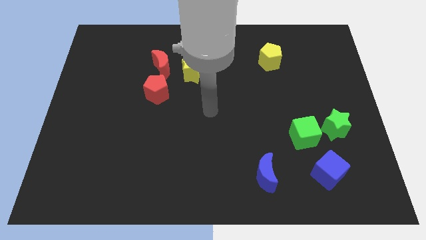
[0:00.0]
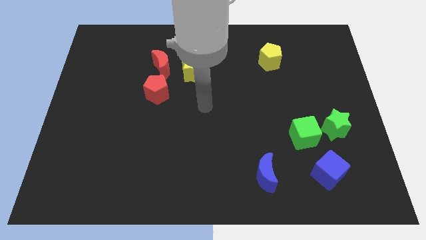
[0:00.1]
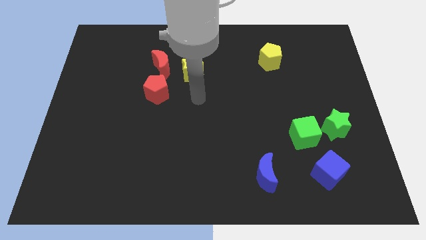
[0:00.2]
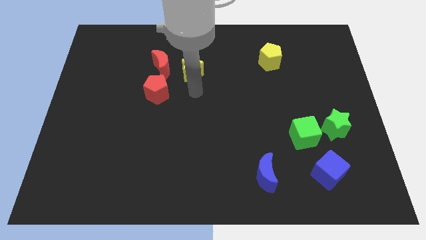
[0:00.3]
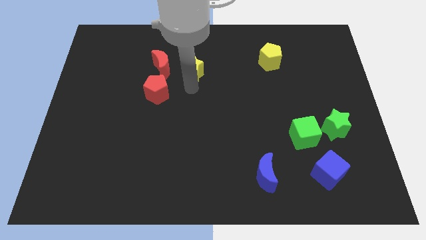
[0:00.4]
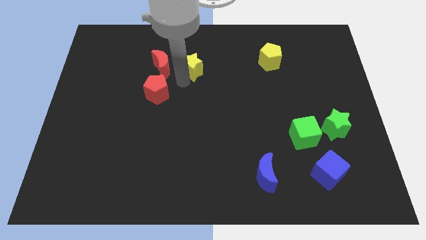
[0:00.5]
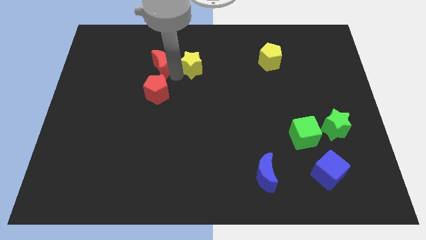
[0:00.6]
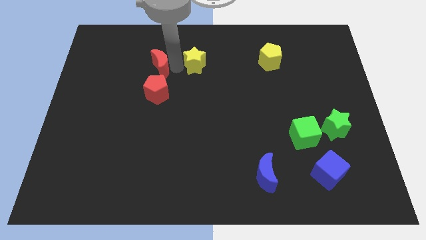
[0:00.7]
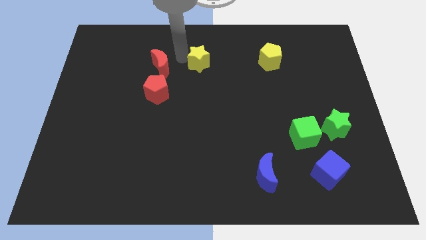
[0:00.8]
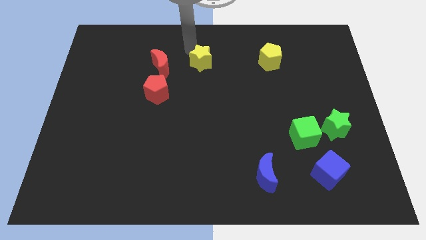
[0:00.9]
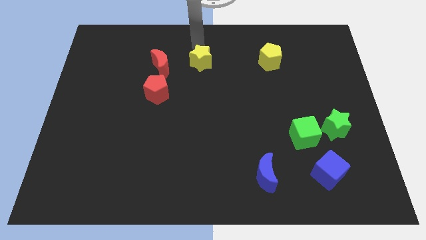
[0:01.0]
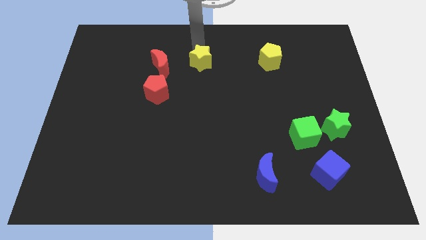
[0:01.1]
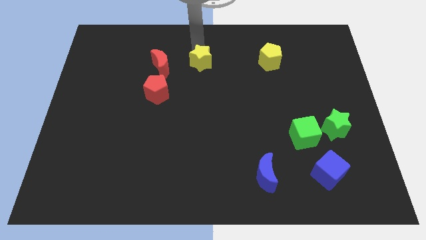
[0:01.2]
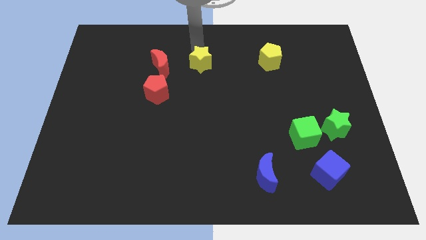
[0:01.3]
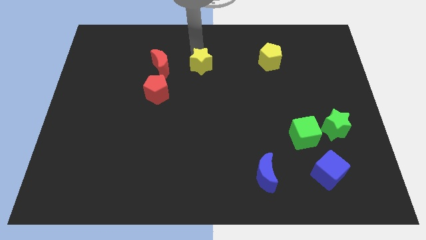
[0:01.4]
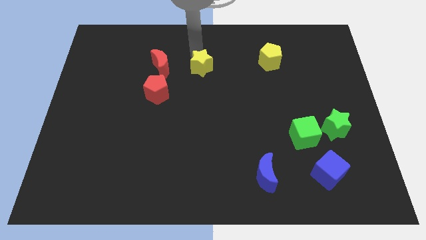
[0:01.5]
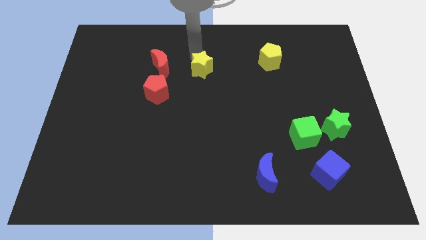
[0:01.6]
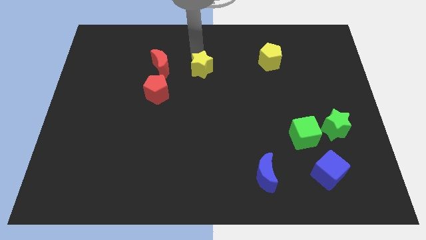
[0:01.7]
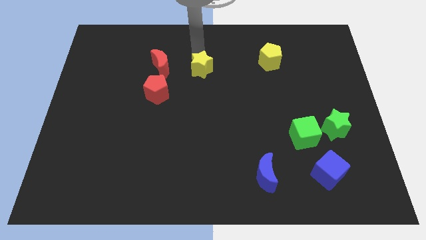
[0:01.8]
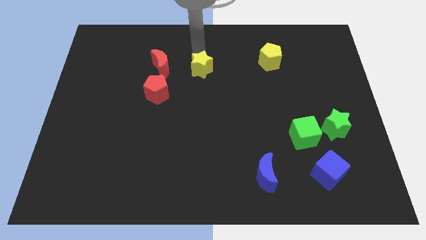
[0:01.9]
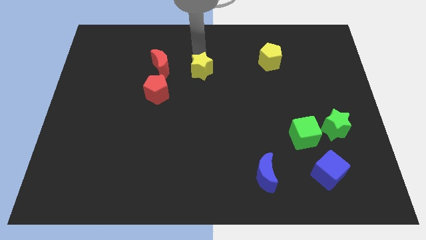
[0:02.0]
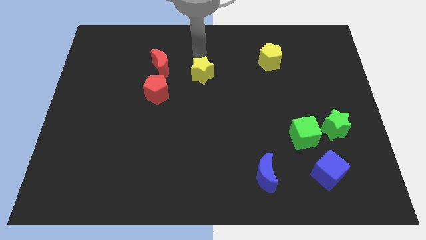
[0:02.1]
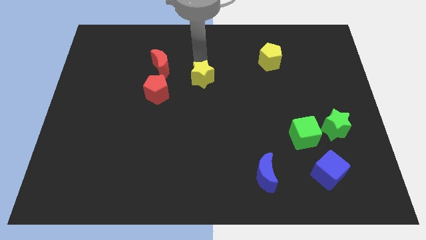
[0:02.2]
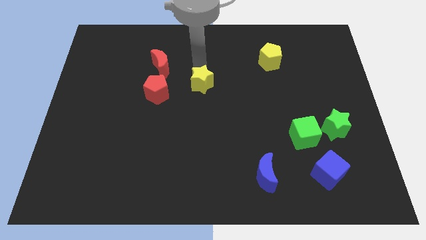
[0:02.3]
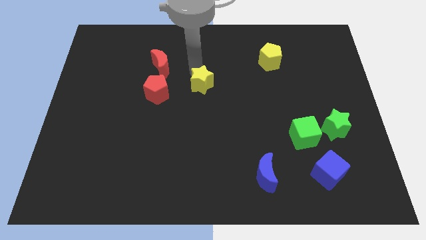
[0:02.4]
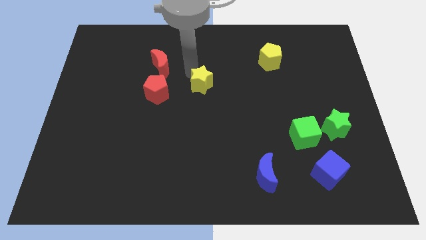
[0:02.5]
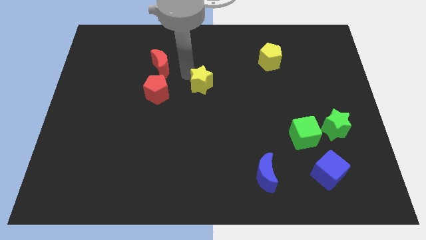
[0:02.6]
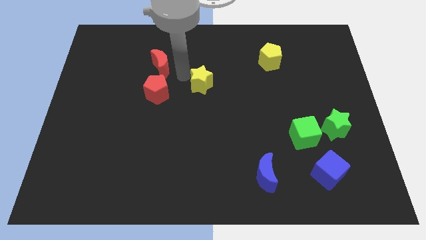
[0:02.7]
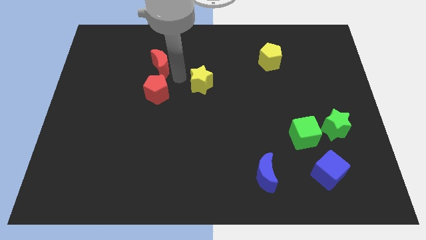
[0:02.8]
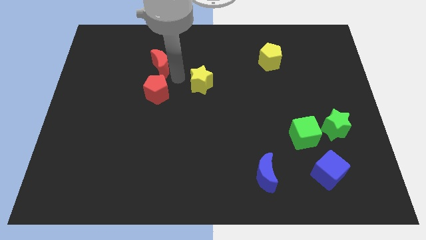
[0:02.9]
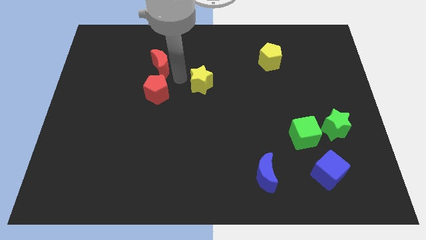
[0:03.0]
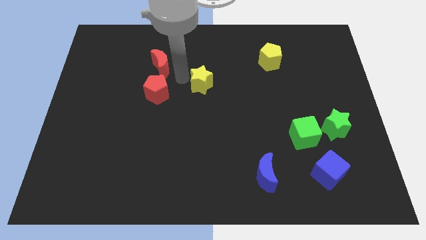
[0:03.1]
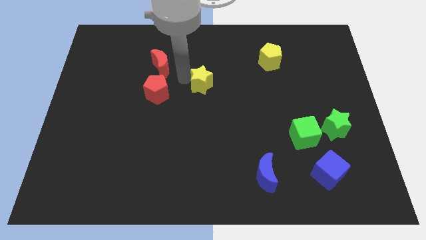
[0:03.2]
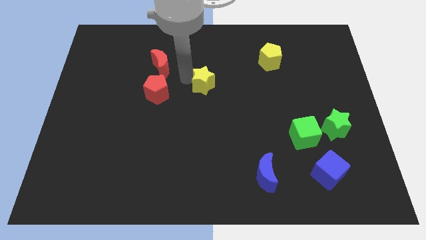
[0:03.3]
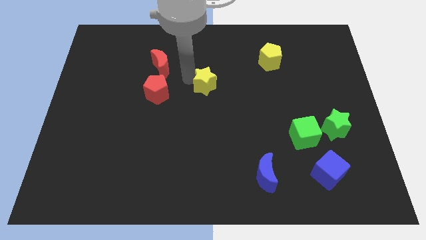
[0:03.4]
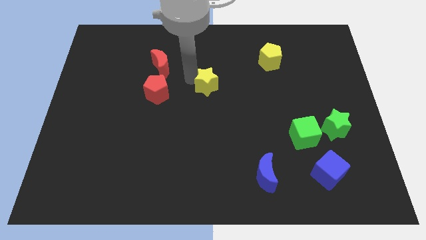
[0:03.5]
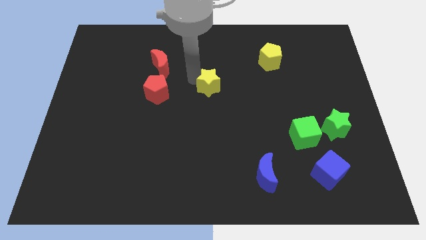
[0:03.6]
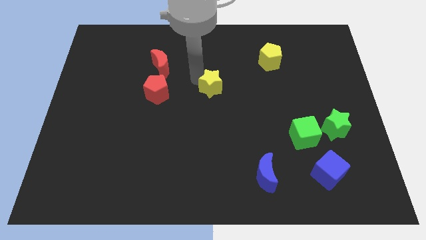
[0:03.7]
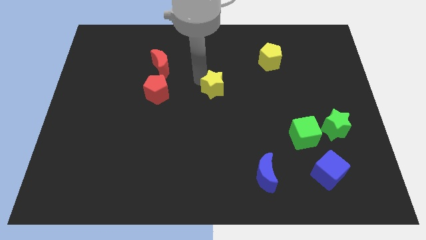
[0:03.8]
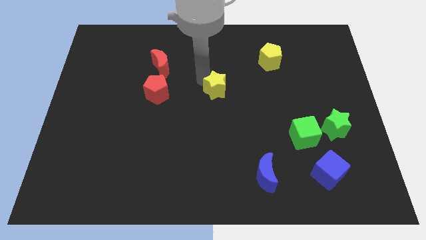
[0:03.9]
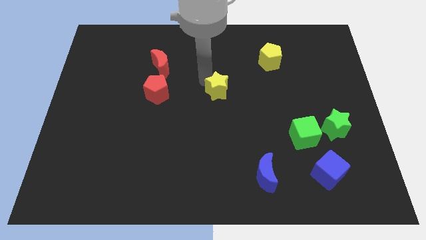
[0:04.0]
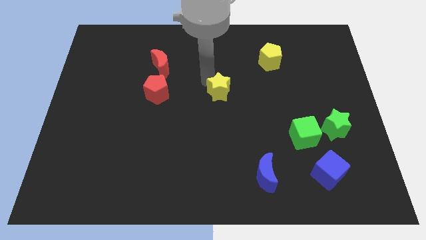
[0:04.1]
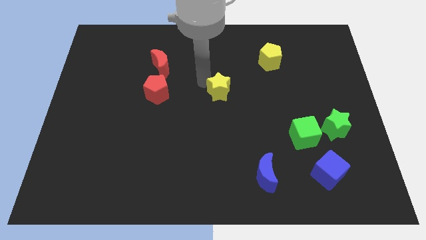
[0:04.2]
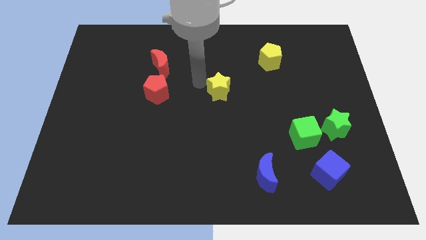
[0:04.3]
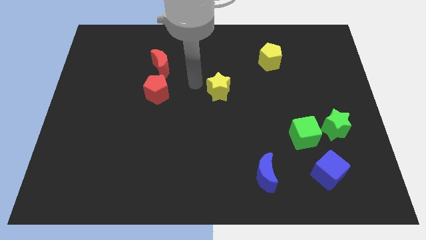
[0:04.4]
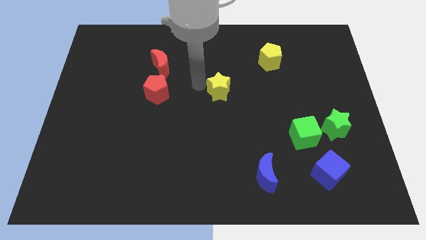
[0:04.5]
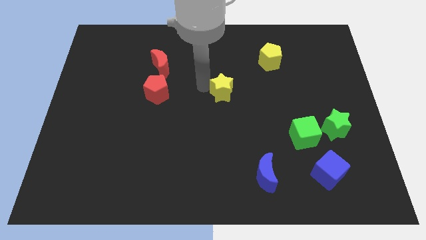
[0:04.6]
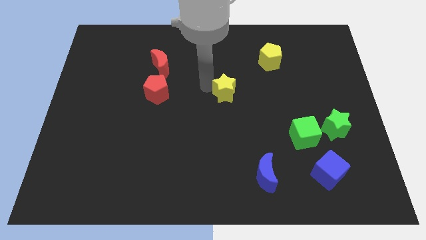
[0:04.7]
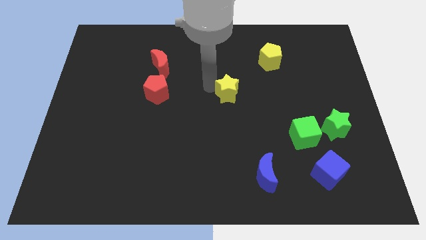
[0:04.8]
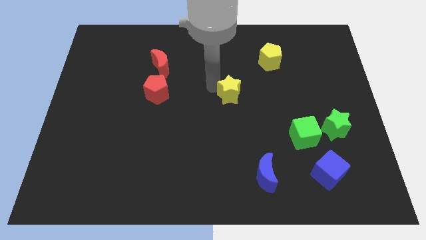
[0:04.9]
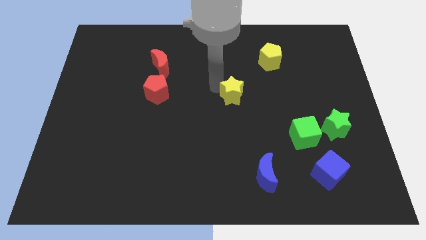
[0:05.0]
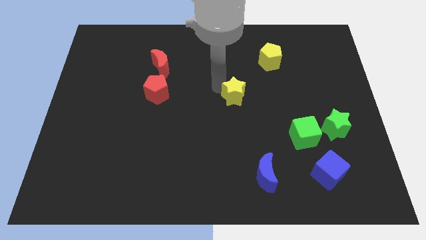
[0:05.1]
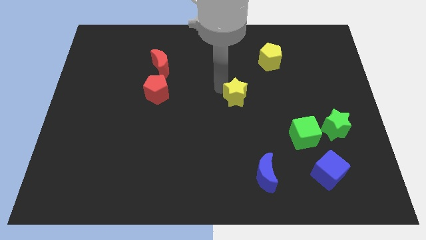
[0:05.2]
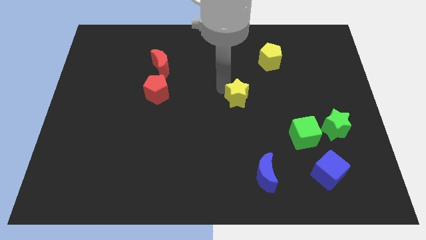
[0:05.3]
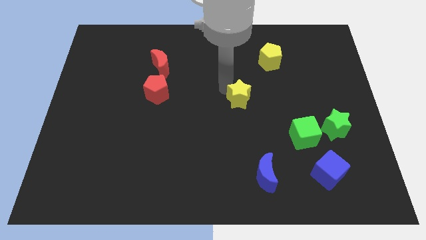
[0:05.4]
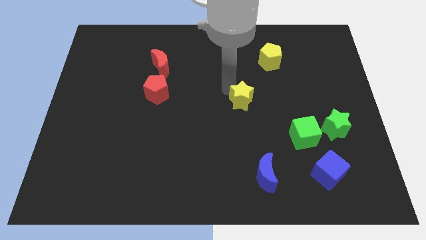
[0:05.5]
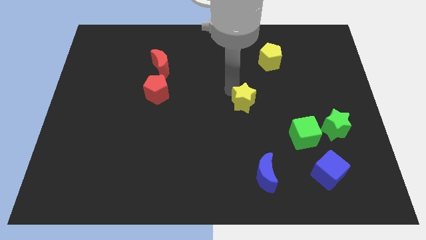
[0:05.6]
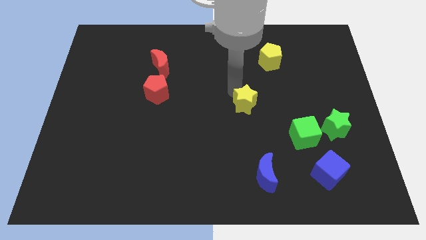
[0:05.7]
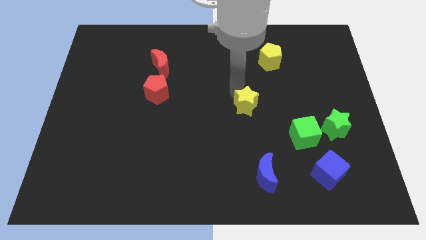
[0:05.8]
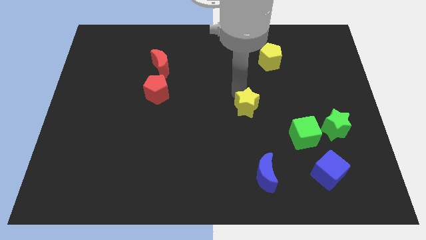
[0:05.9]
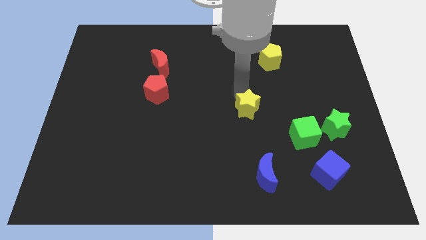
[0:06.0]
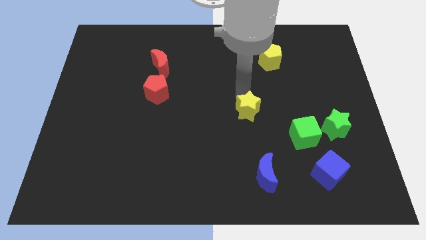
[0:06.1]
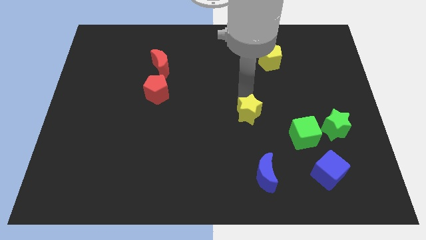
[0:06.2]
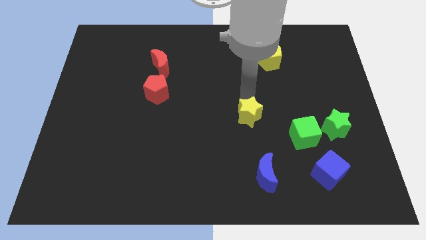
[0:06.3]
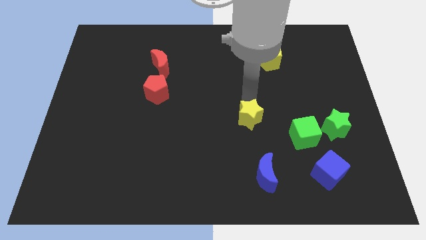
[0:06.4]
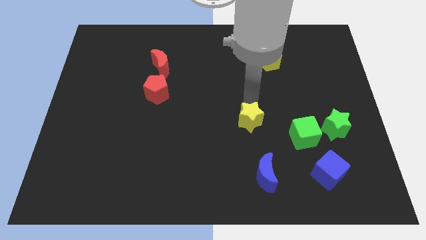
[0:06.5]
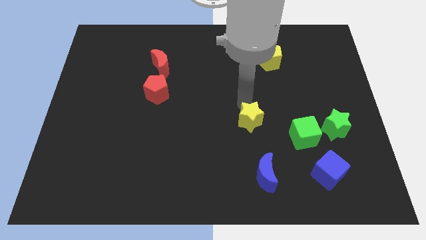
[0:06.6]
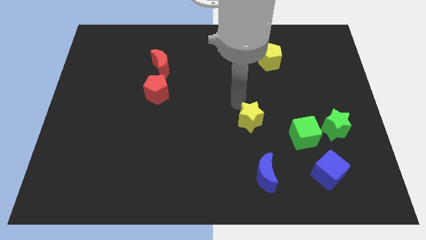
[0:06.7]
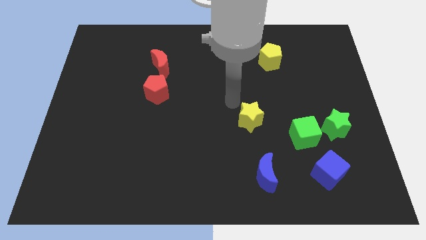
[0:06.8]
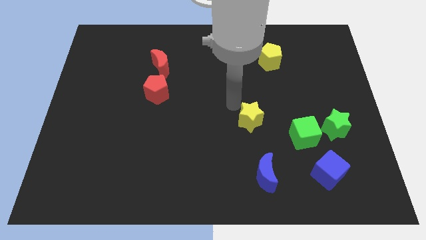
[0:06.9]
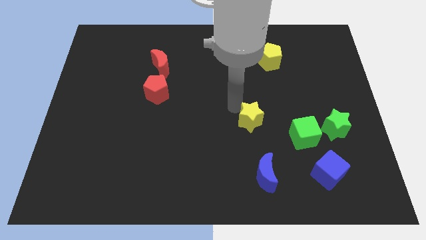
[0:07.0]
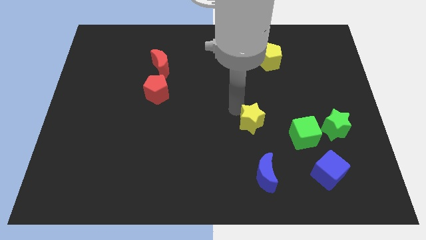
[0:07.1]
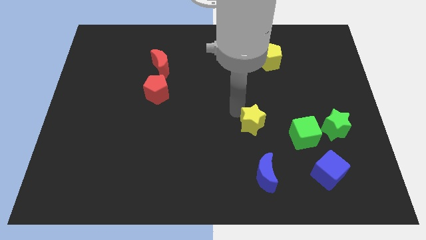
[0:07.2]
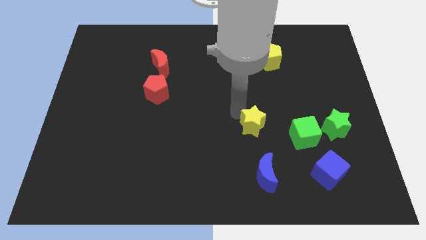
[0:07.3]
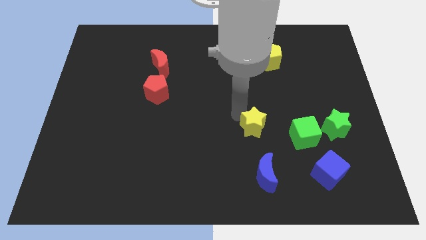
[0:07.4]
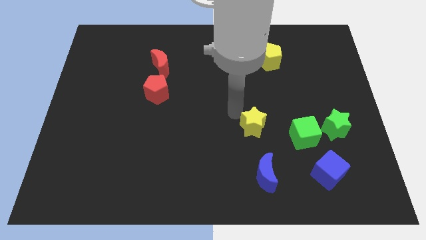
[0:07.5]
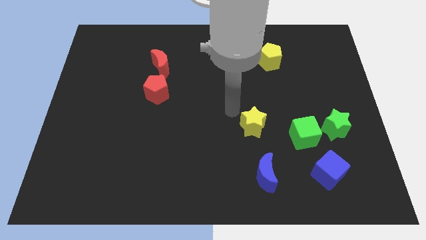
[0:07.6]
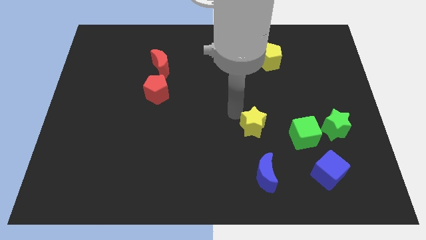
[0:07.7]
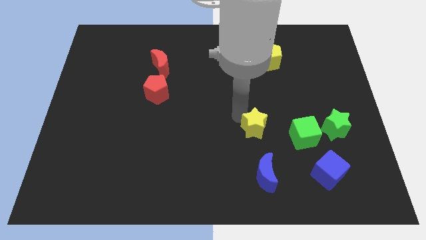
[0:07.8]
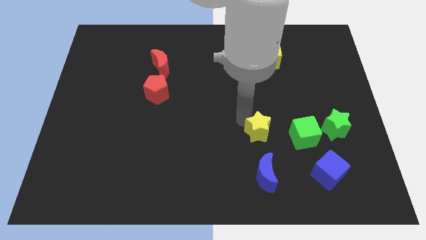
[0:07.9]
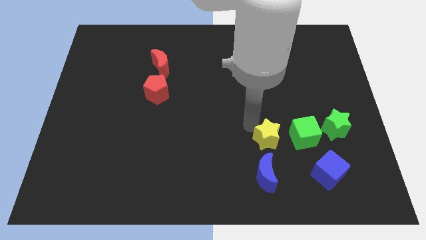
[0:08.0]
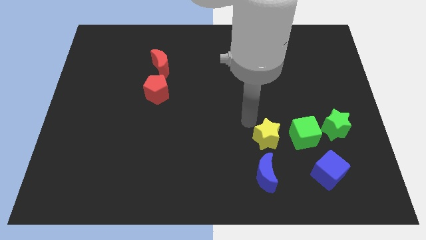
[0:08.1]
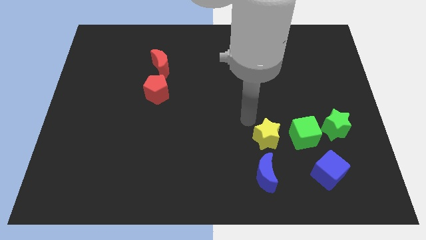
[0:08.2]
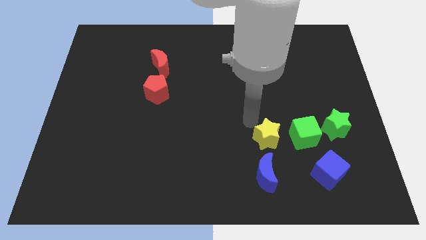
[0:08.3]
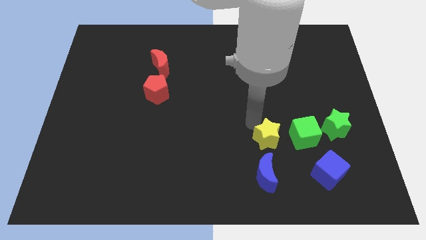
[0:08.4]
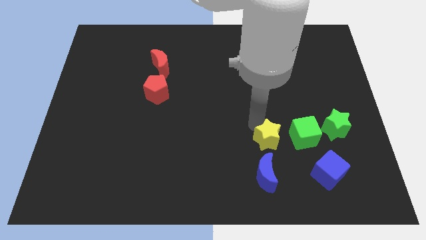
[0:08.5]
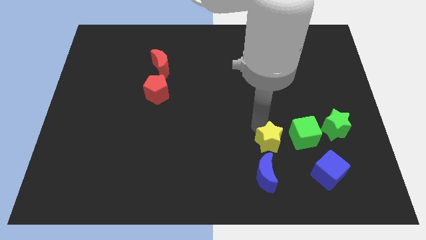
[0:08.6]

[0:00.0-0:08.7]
put the yellow star to the bottom left side of the green cube
